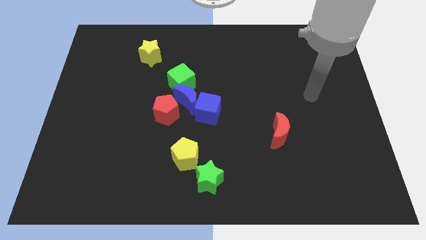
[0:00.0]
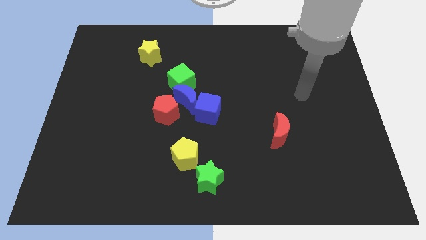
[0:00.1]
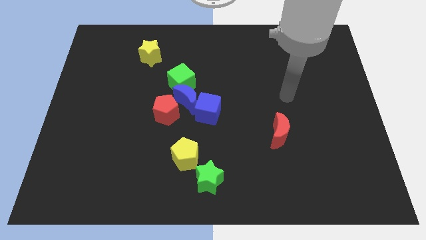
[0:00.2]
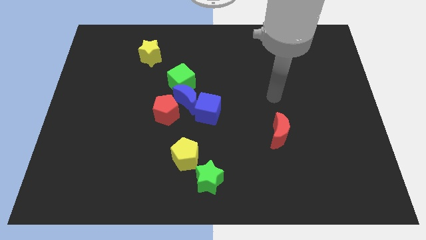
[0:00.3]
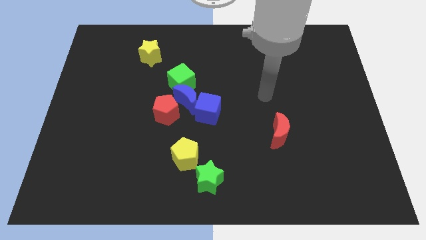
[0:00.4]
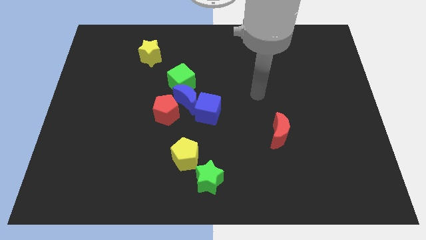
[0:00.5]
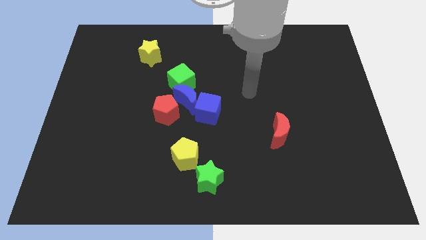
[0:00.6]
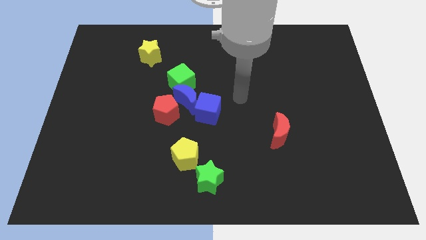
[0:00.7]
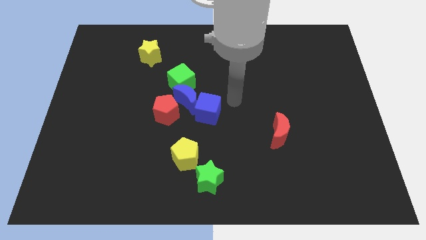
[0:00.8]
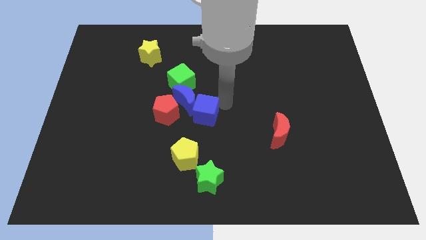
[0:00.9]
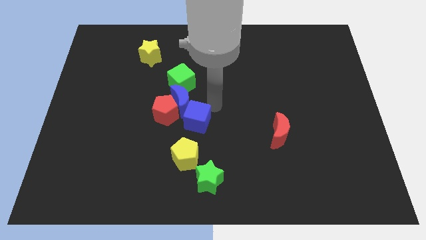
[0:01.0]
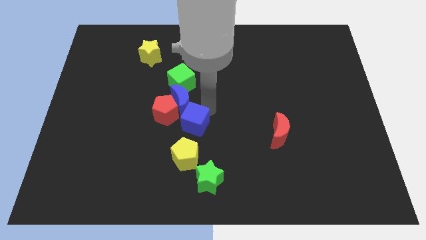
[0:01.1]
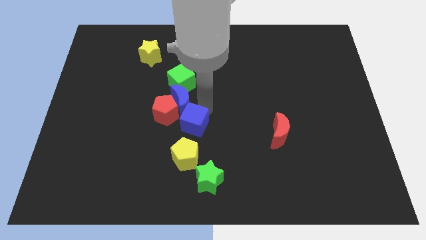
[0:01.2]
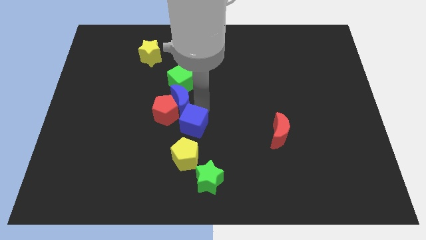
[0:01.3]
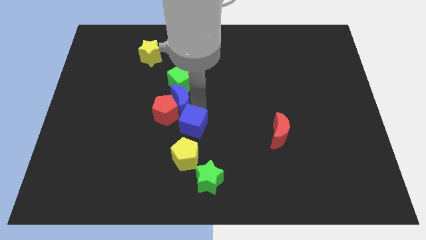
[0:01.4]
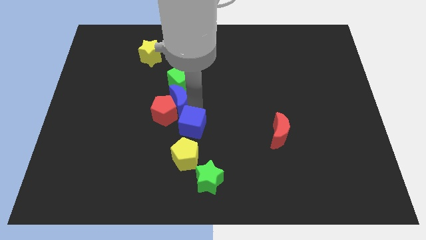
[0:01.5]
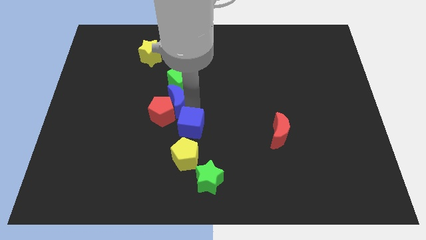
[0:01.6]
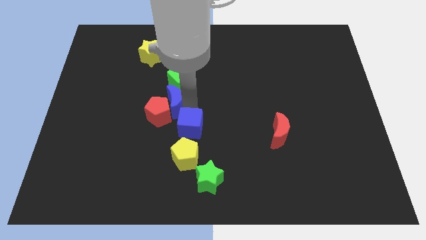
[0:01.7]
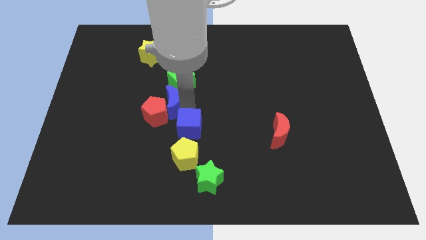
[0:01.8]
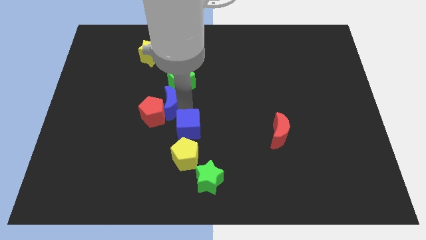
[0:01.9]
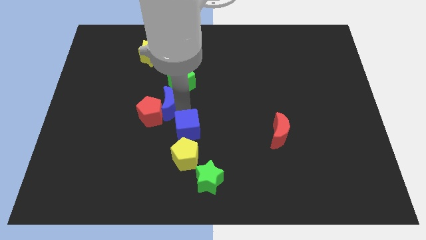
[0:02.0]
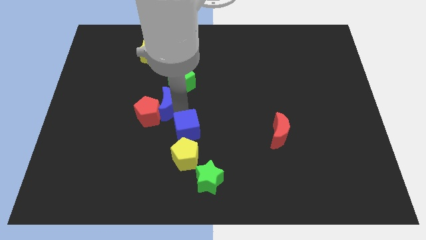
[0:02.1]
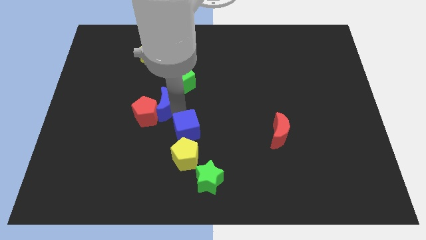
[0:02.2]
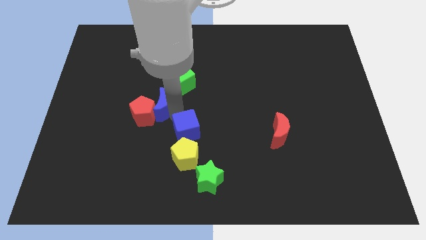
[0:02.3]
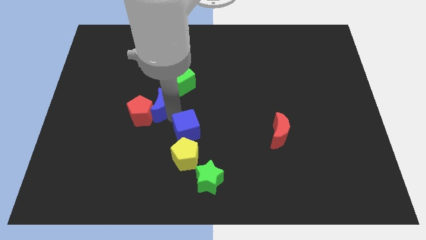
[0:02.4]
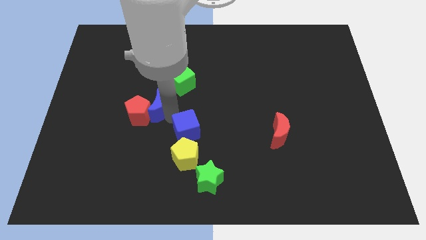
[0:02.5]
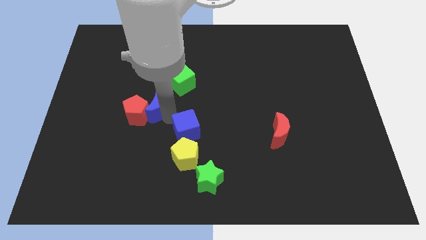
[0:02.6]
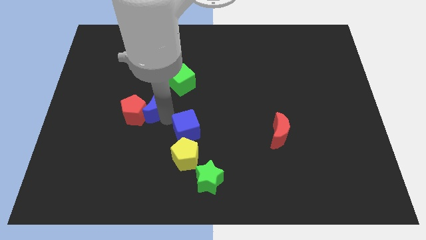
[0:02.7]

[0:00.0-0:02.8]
slightly push the blue moon to the left

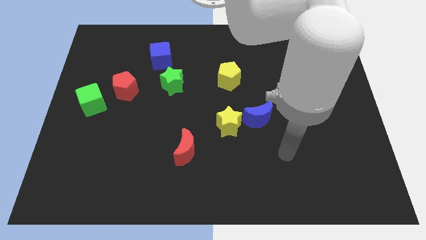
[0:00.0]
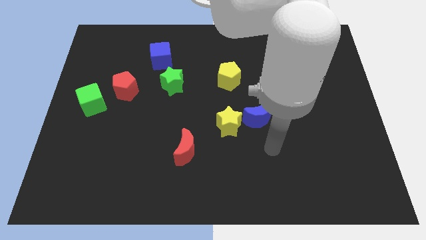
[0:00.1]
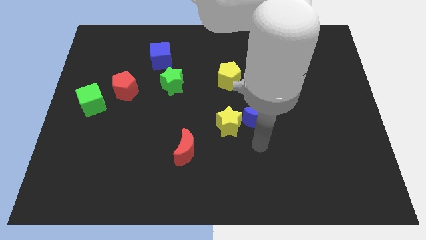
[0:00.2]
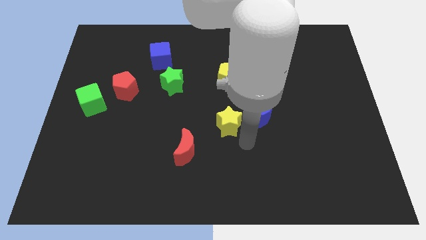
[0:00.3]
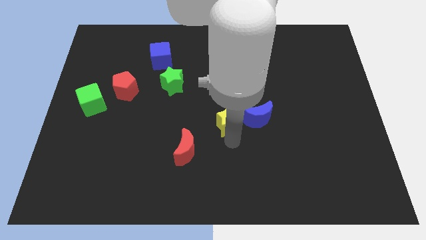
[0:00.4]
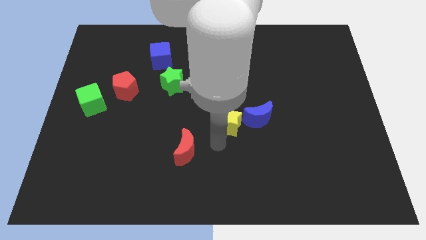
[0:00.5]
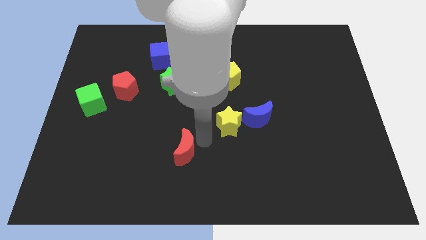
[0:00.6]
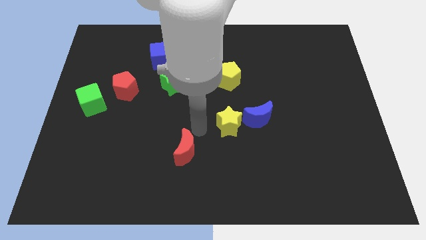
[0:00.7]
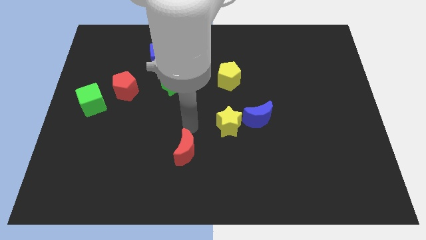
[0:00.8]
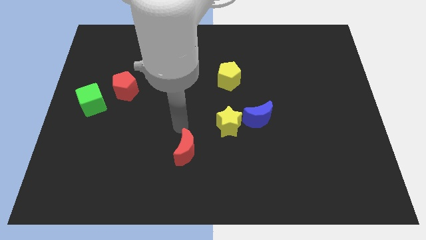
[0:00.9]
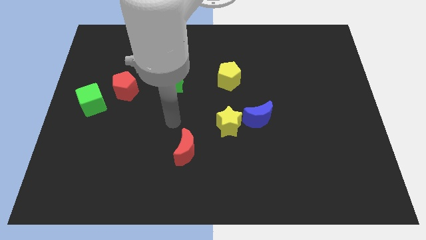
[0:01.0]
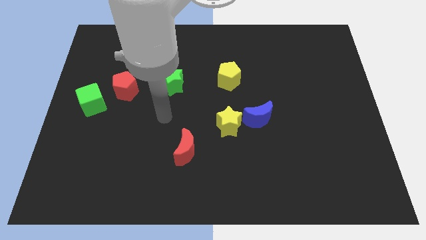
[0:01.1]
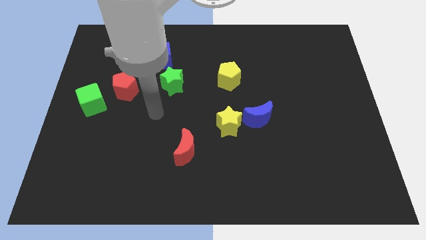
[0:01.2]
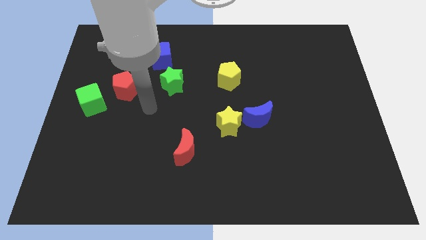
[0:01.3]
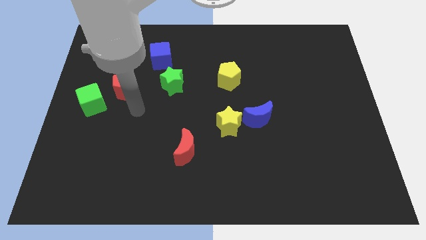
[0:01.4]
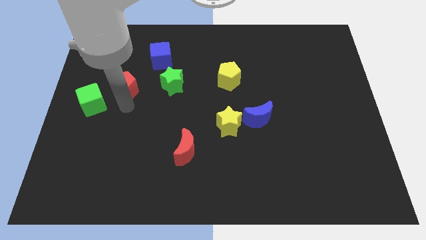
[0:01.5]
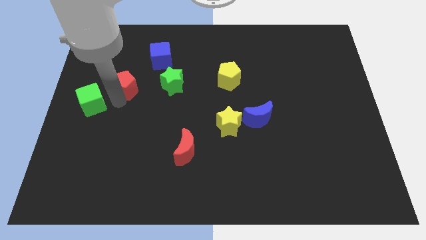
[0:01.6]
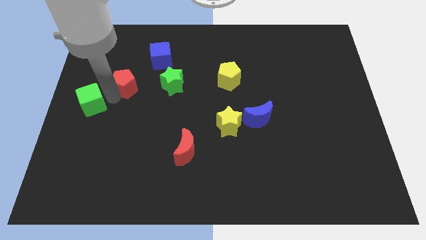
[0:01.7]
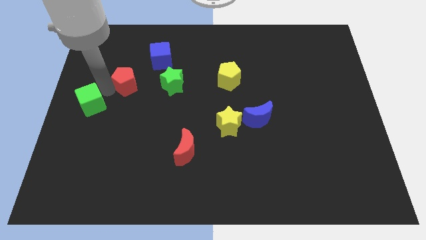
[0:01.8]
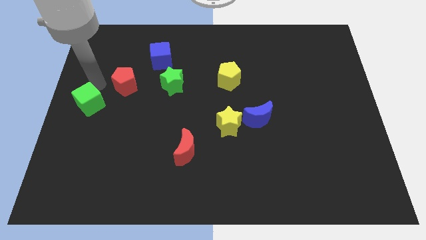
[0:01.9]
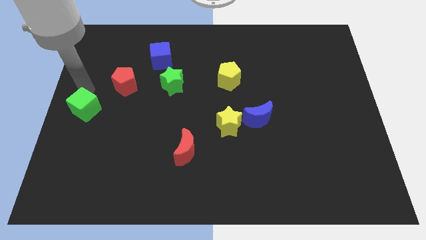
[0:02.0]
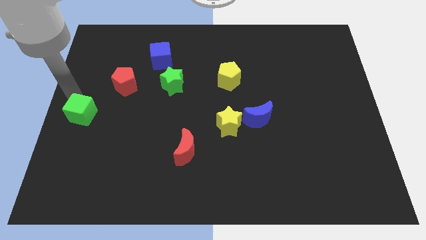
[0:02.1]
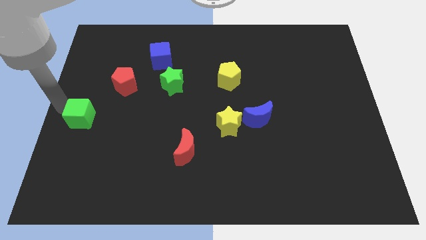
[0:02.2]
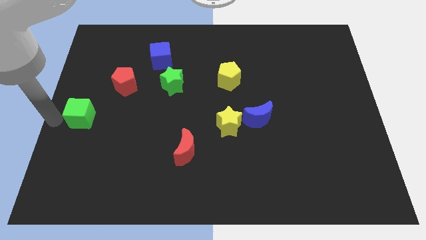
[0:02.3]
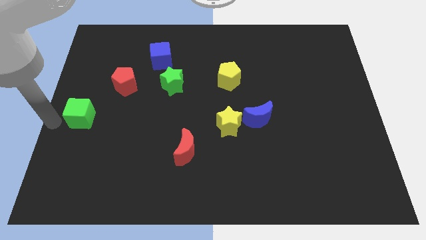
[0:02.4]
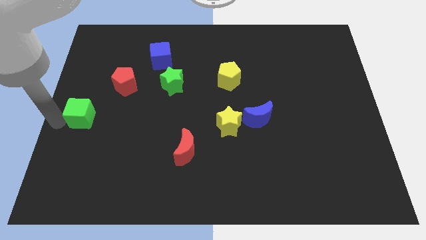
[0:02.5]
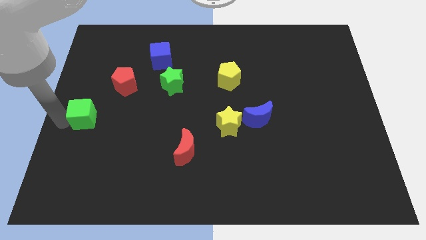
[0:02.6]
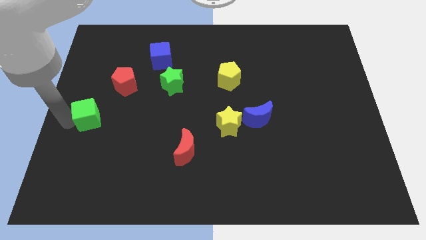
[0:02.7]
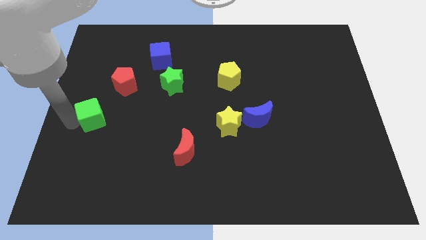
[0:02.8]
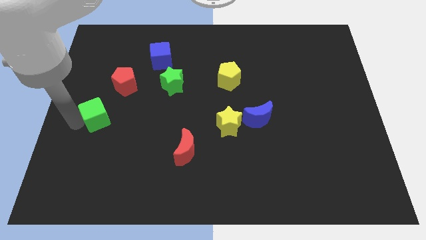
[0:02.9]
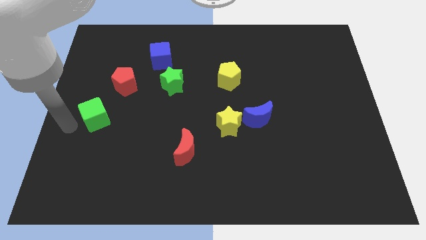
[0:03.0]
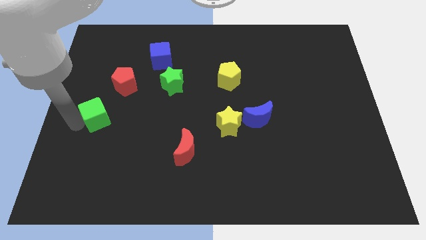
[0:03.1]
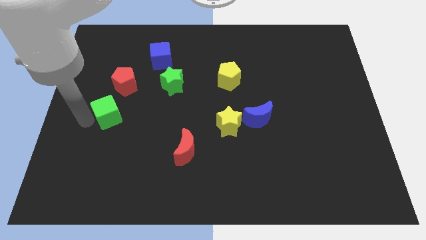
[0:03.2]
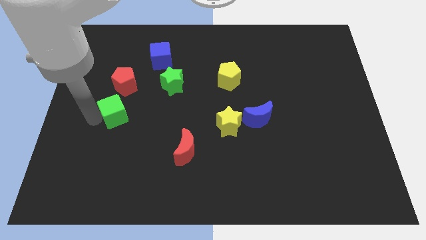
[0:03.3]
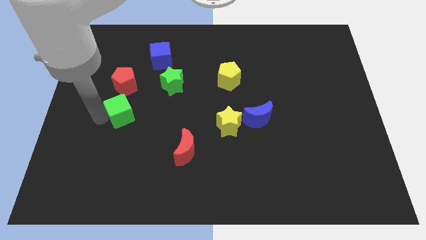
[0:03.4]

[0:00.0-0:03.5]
slide the green cube to the right a little

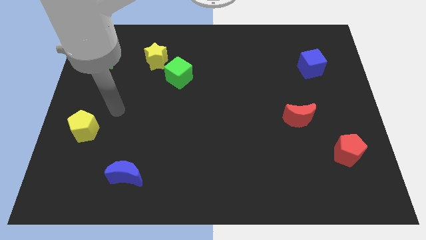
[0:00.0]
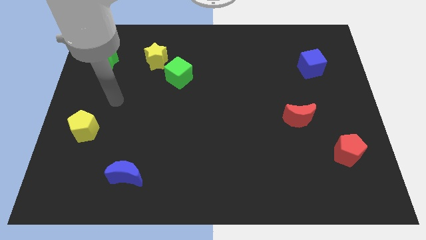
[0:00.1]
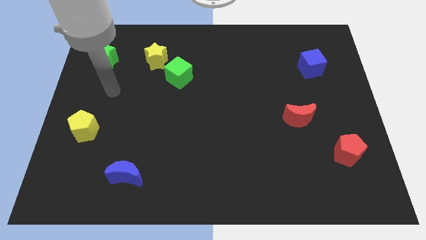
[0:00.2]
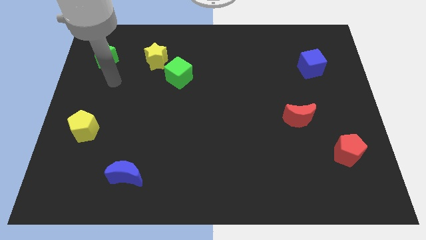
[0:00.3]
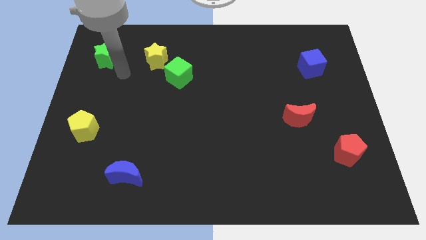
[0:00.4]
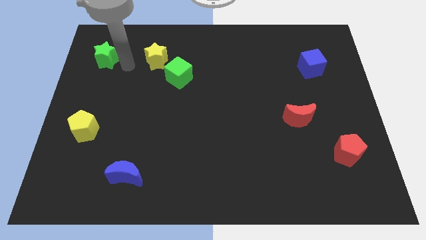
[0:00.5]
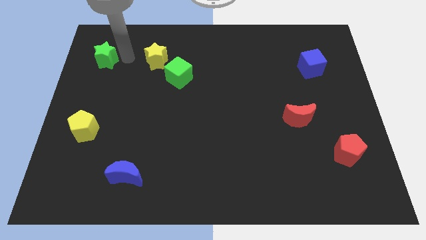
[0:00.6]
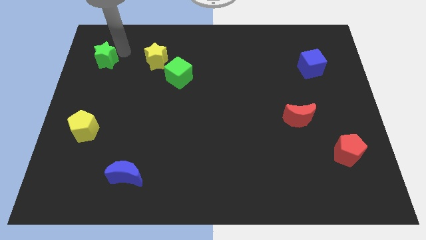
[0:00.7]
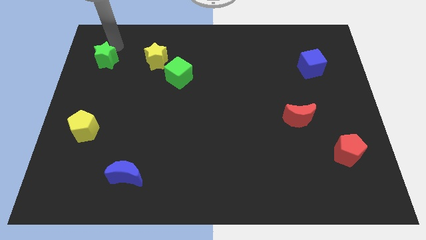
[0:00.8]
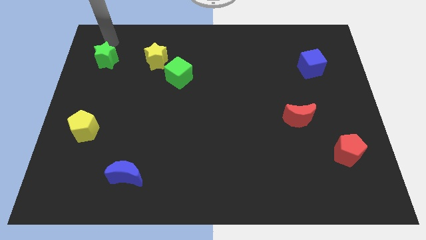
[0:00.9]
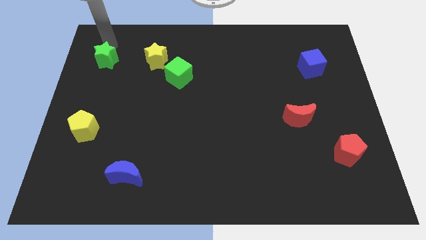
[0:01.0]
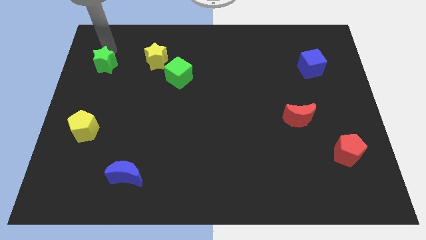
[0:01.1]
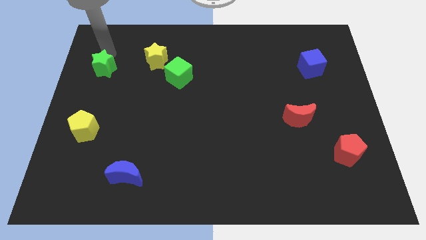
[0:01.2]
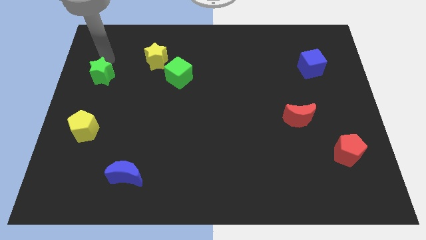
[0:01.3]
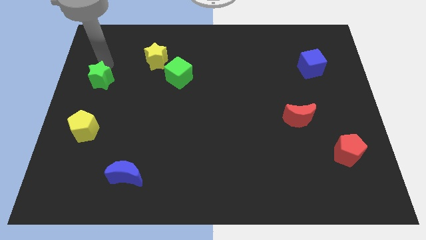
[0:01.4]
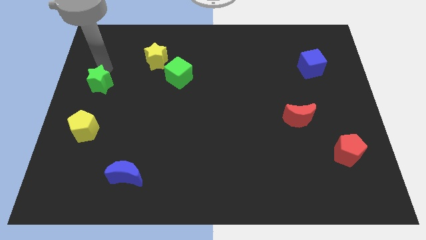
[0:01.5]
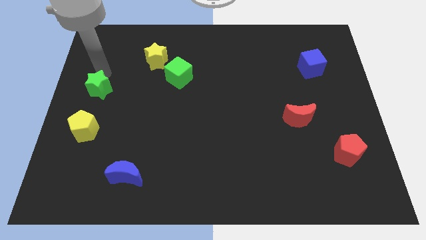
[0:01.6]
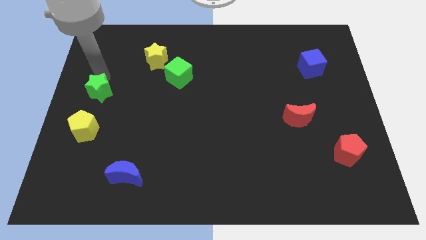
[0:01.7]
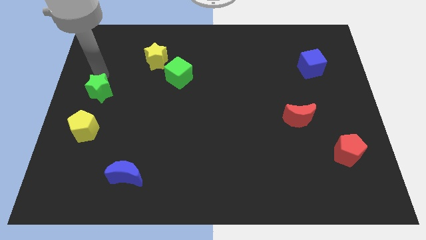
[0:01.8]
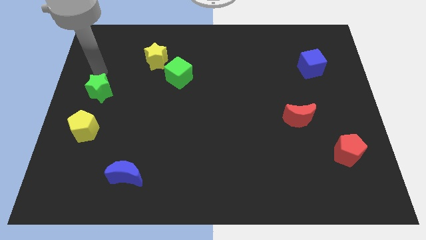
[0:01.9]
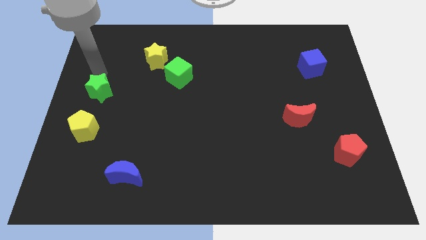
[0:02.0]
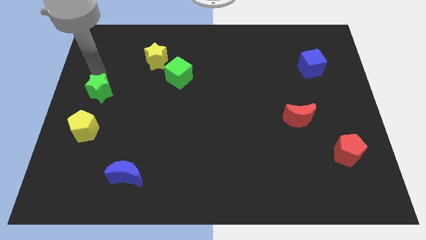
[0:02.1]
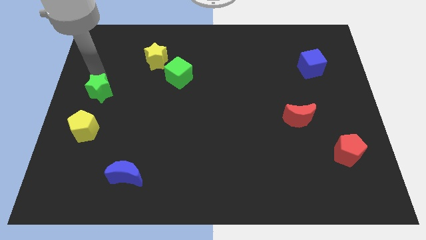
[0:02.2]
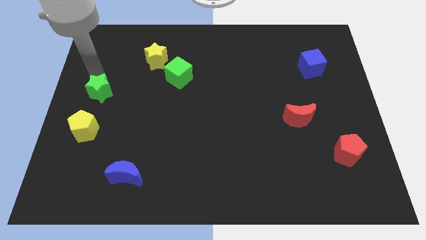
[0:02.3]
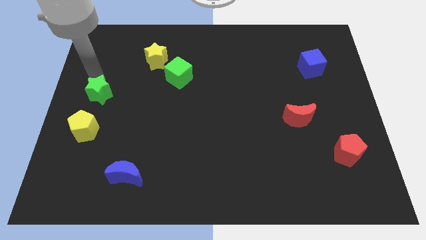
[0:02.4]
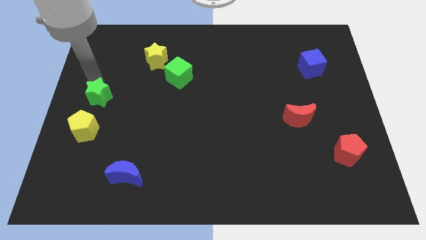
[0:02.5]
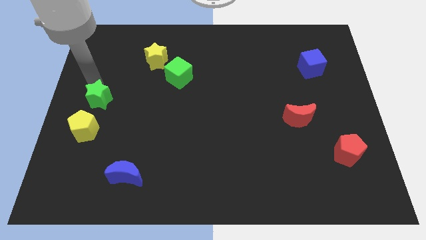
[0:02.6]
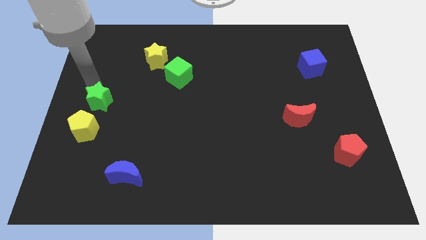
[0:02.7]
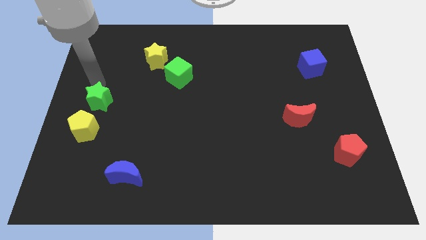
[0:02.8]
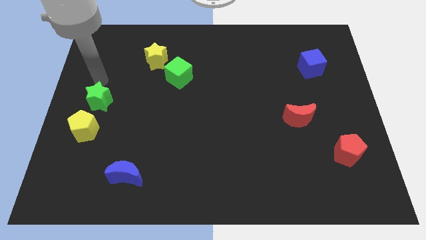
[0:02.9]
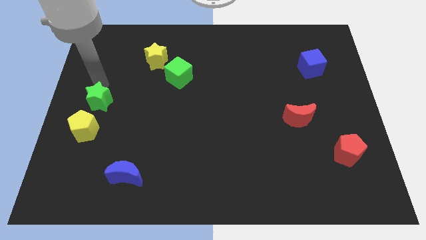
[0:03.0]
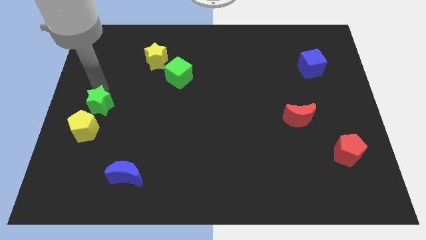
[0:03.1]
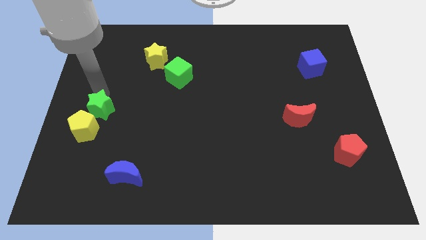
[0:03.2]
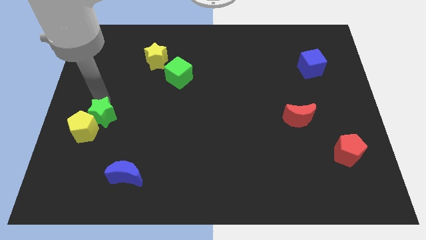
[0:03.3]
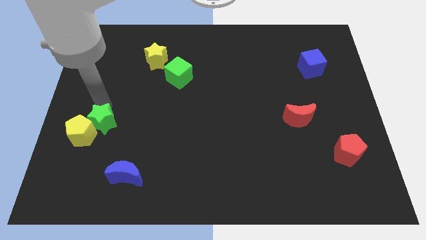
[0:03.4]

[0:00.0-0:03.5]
push the green star down
